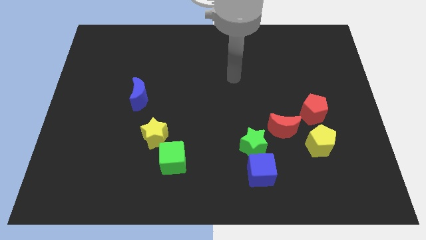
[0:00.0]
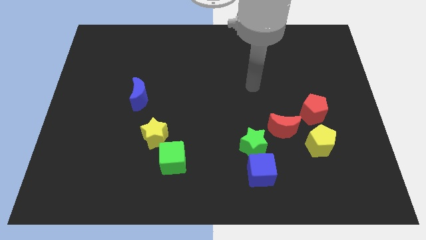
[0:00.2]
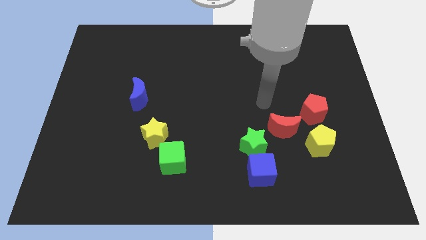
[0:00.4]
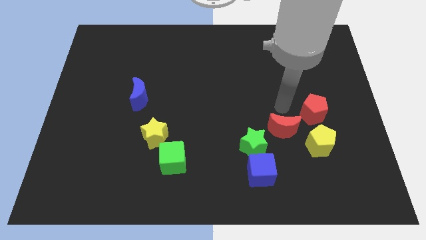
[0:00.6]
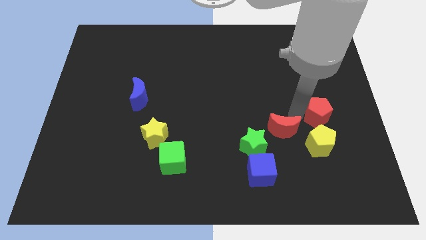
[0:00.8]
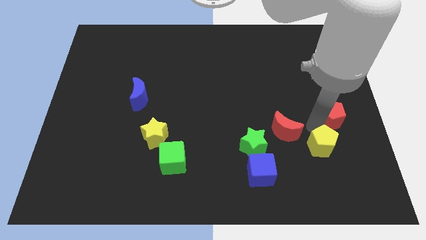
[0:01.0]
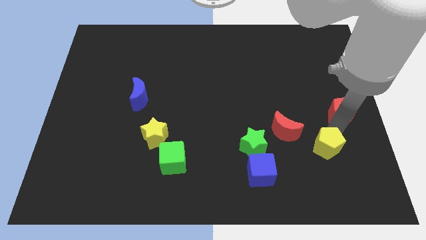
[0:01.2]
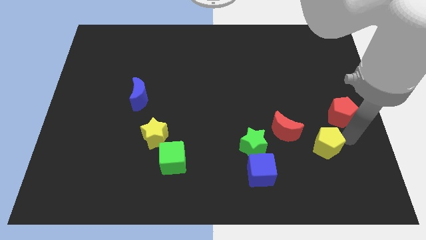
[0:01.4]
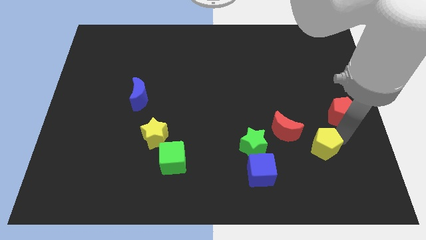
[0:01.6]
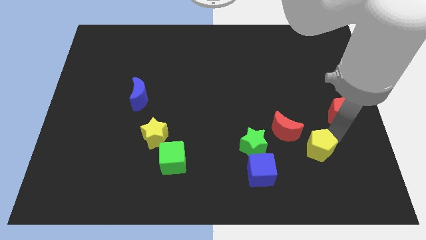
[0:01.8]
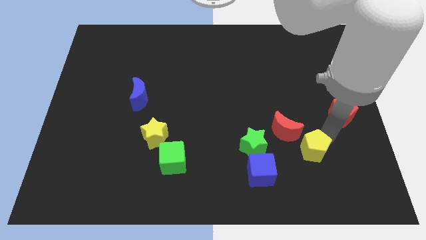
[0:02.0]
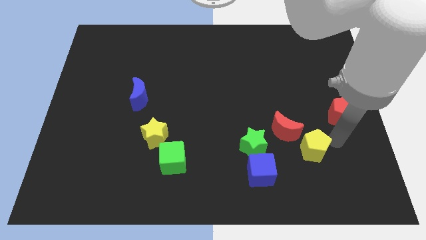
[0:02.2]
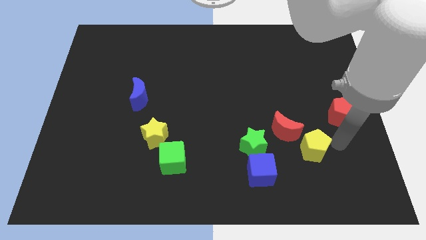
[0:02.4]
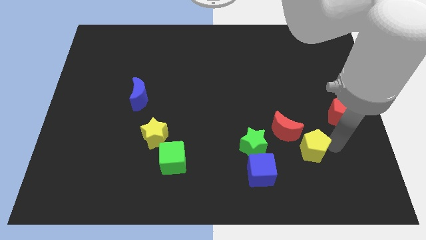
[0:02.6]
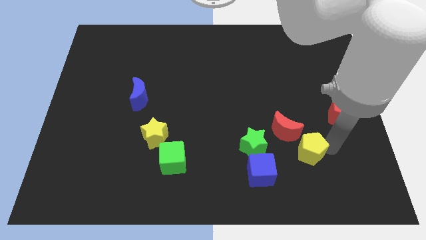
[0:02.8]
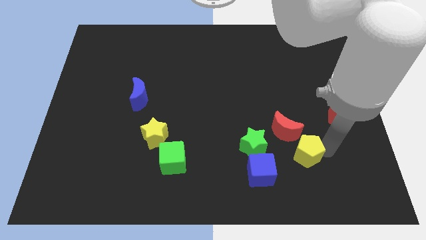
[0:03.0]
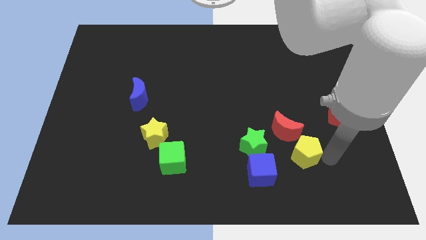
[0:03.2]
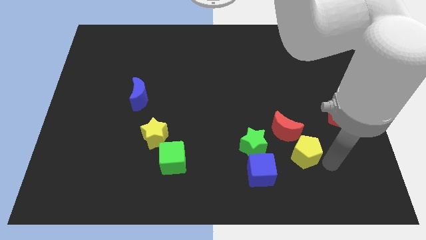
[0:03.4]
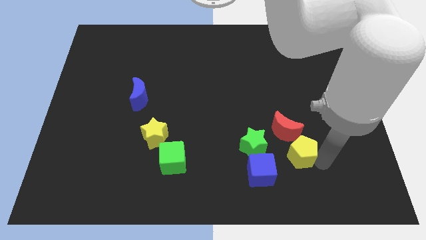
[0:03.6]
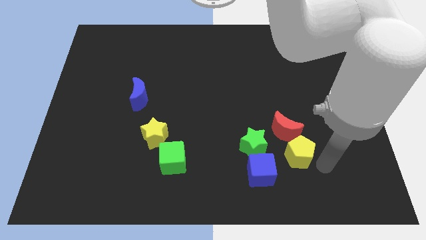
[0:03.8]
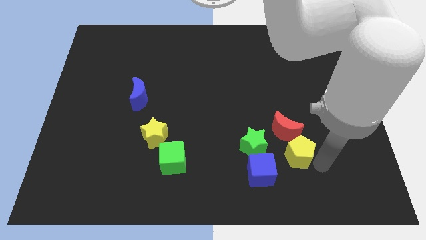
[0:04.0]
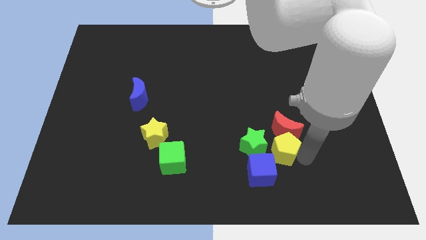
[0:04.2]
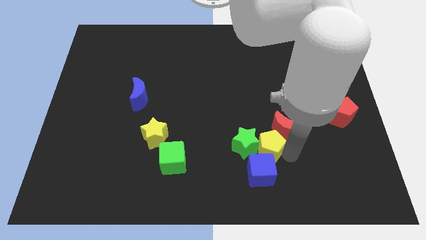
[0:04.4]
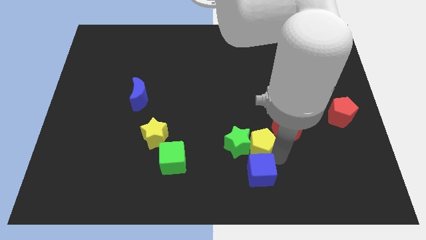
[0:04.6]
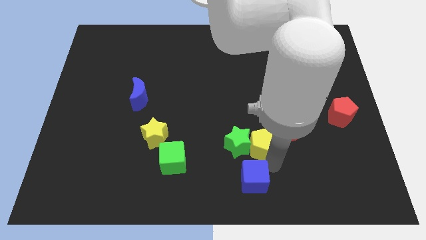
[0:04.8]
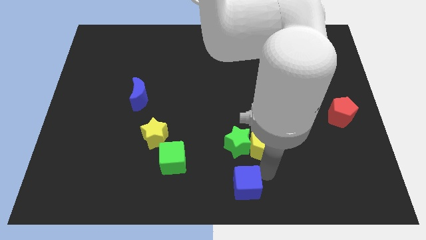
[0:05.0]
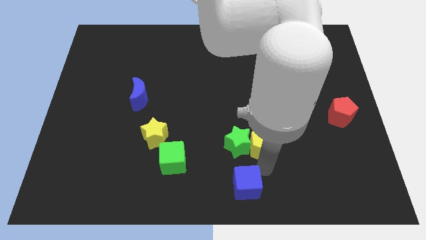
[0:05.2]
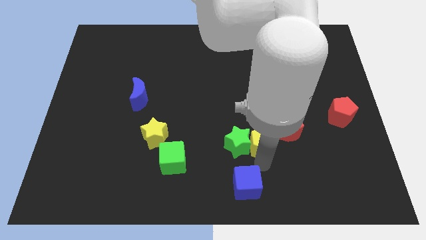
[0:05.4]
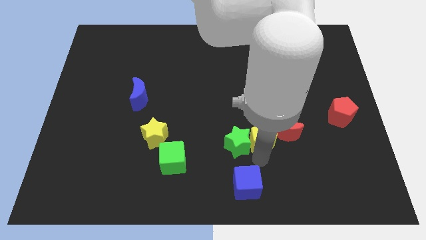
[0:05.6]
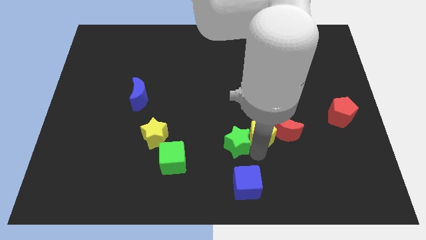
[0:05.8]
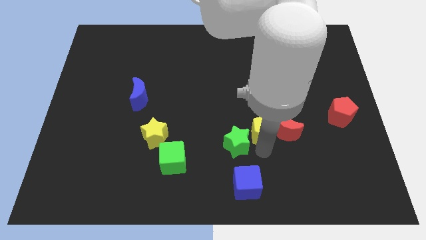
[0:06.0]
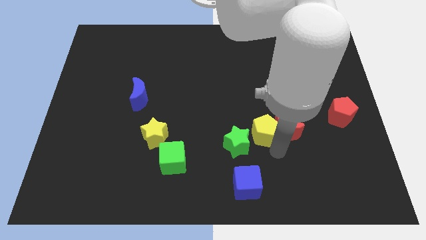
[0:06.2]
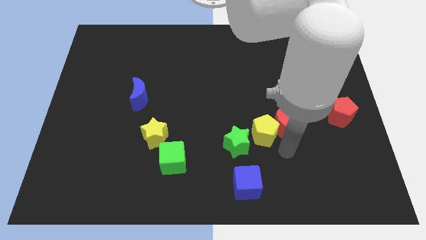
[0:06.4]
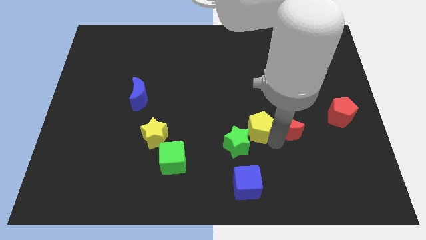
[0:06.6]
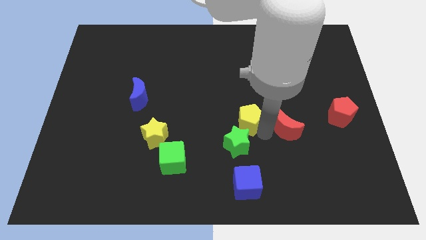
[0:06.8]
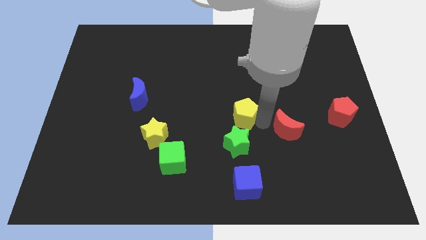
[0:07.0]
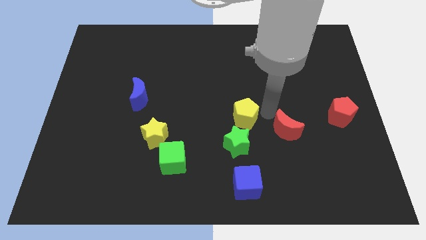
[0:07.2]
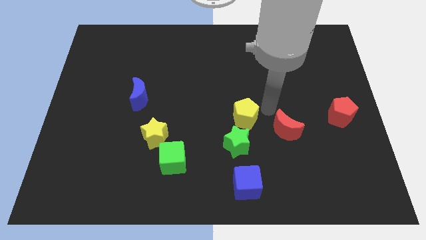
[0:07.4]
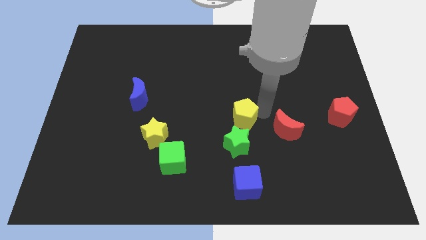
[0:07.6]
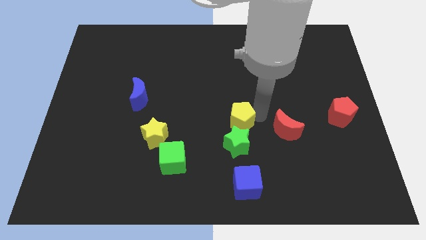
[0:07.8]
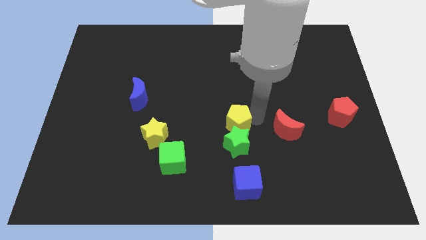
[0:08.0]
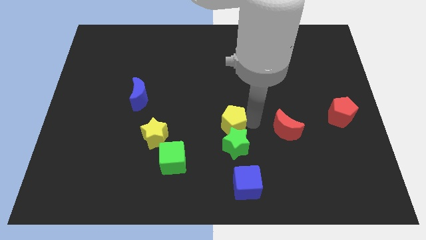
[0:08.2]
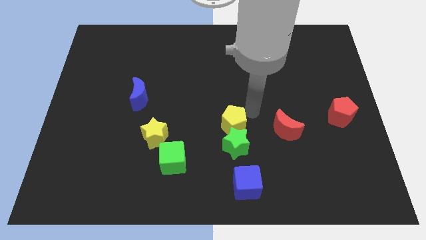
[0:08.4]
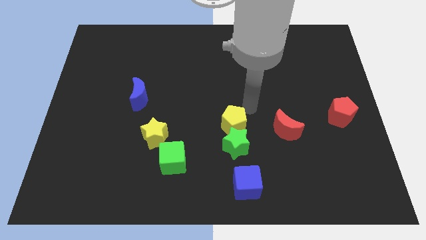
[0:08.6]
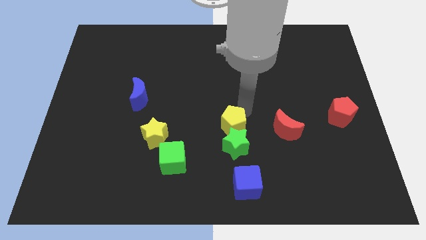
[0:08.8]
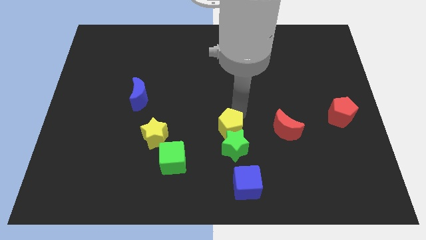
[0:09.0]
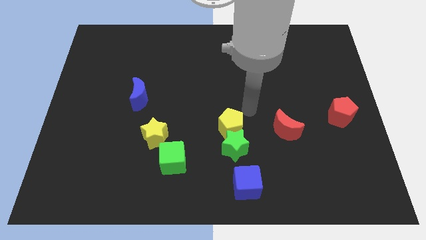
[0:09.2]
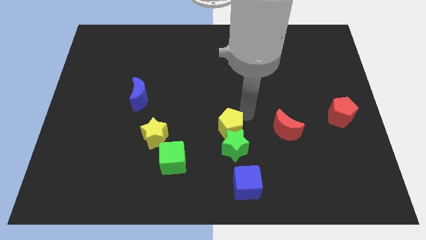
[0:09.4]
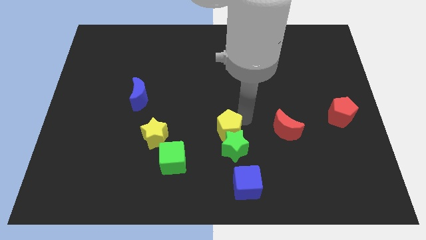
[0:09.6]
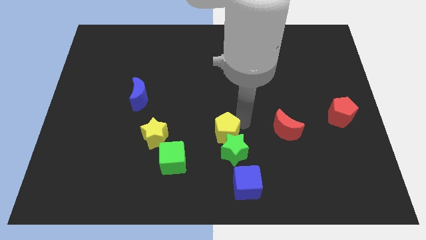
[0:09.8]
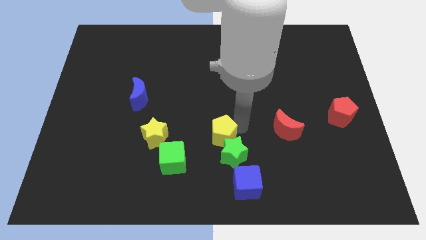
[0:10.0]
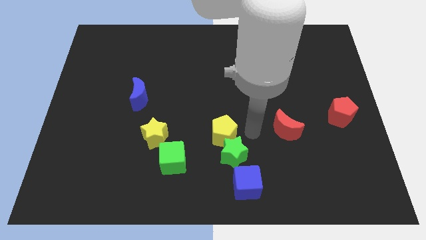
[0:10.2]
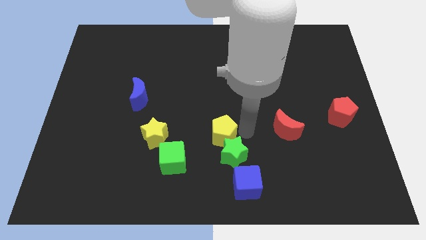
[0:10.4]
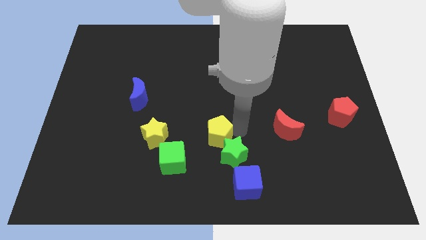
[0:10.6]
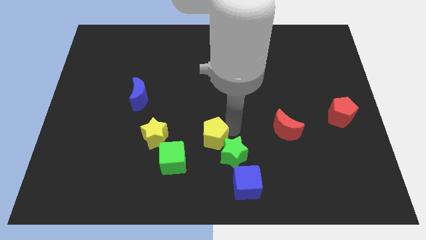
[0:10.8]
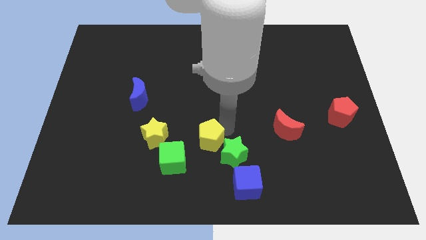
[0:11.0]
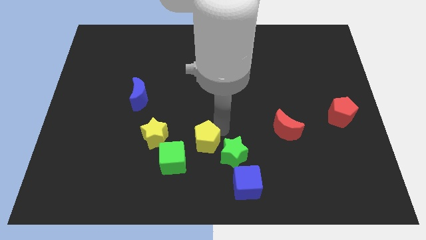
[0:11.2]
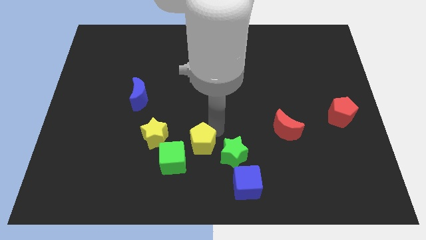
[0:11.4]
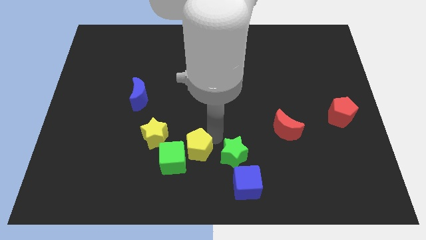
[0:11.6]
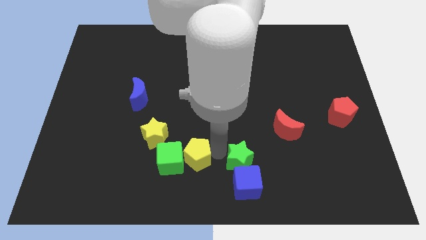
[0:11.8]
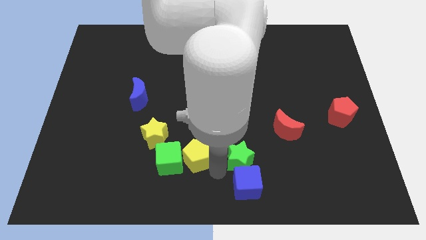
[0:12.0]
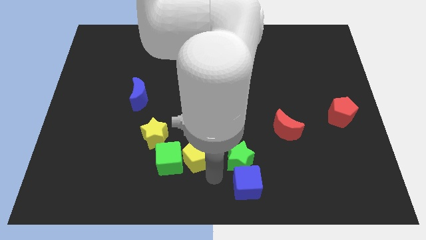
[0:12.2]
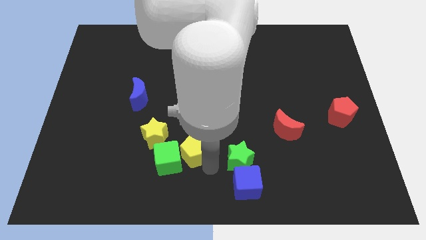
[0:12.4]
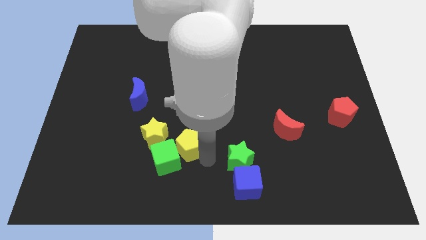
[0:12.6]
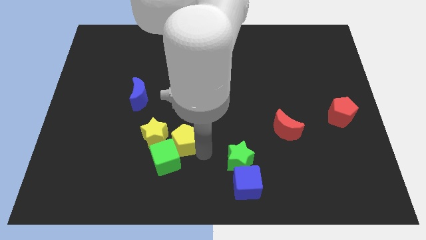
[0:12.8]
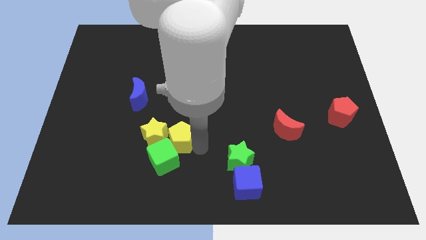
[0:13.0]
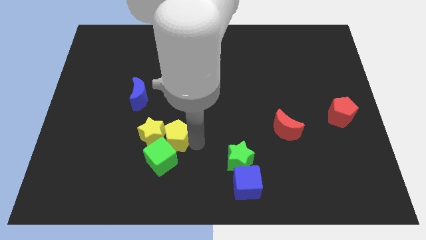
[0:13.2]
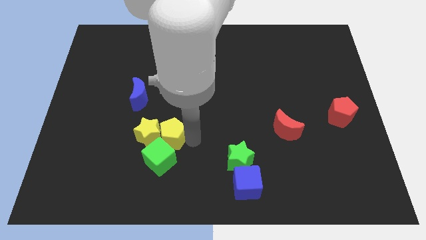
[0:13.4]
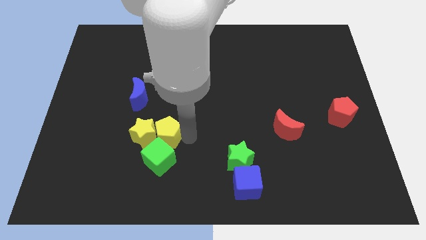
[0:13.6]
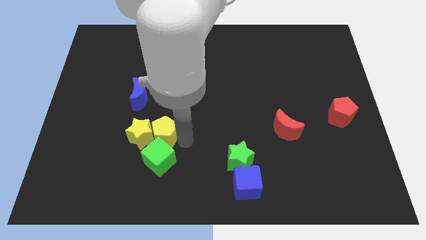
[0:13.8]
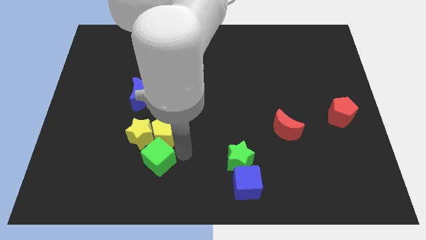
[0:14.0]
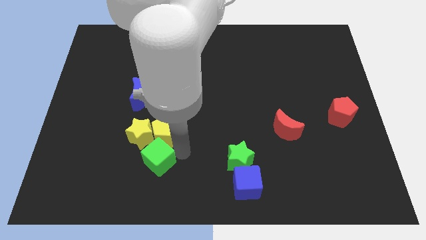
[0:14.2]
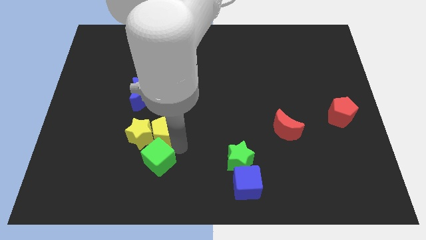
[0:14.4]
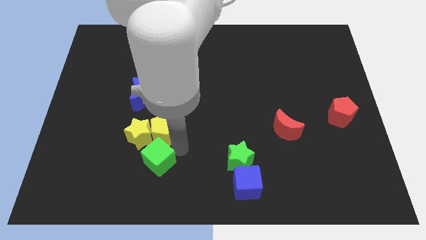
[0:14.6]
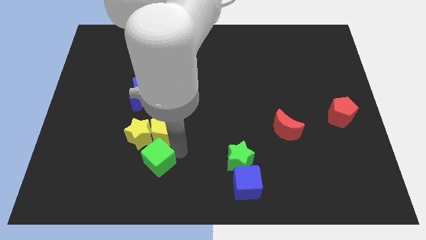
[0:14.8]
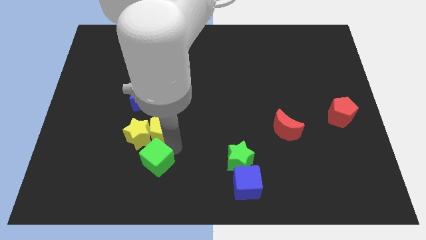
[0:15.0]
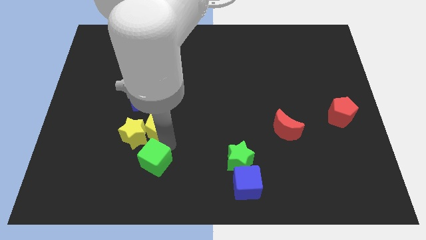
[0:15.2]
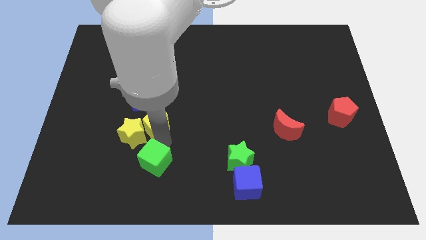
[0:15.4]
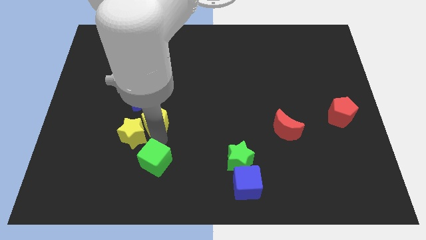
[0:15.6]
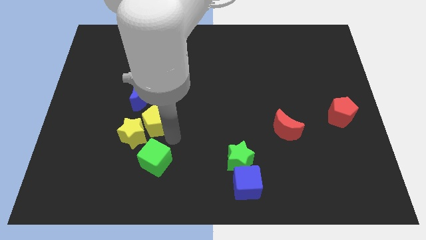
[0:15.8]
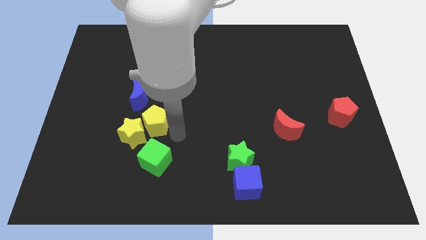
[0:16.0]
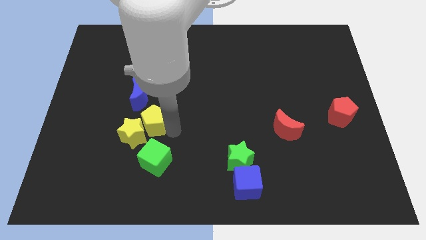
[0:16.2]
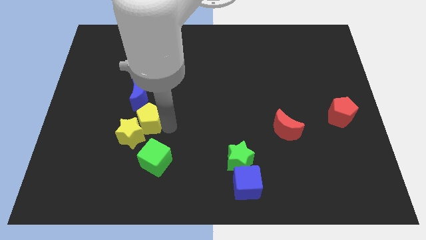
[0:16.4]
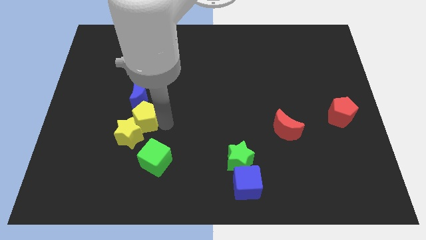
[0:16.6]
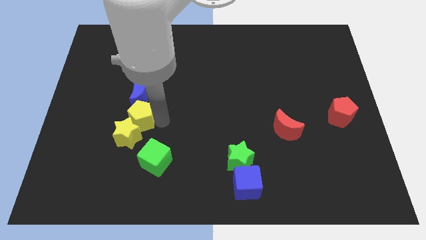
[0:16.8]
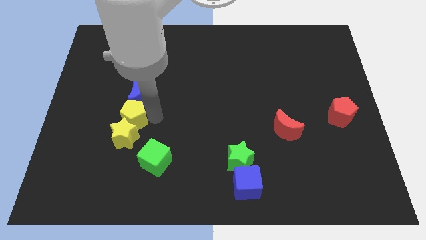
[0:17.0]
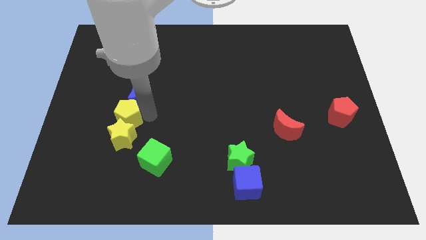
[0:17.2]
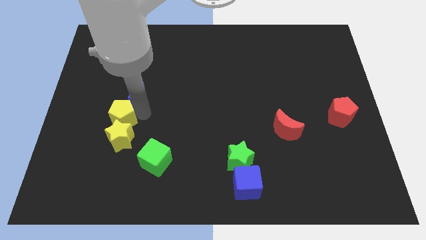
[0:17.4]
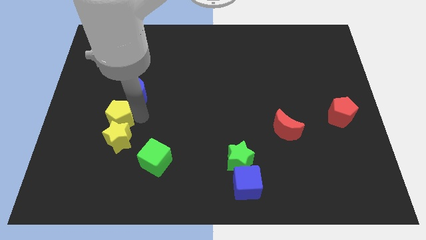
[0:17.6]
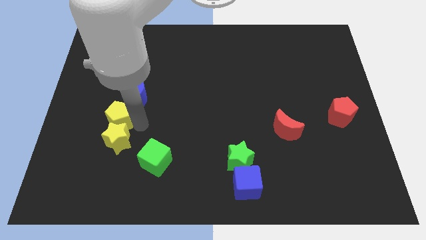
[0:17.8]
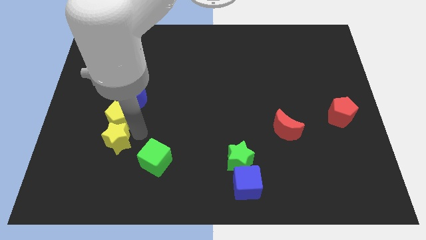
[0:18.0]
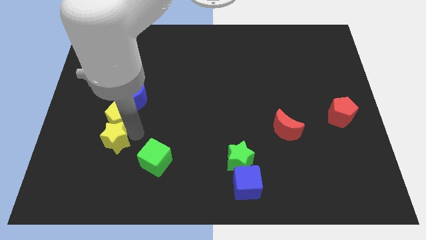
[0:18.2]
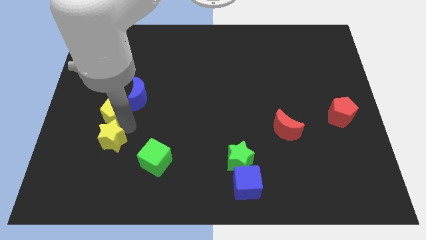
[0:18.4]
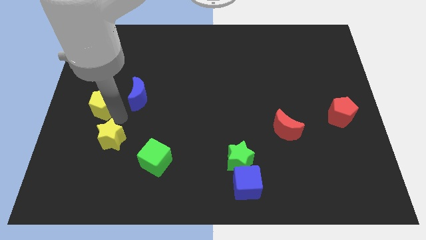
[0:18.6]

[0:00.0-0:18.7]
put the yellow pentagon to the left side of the board
